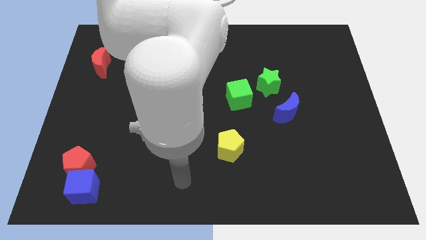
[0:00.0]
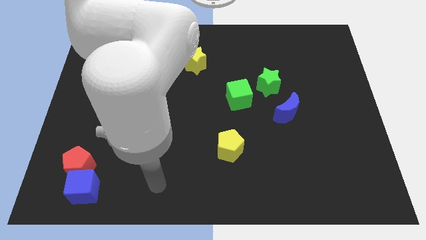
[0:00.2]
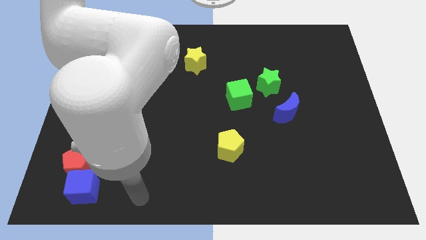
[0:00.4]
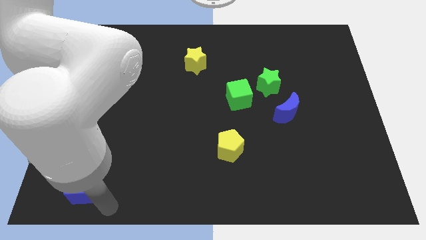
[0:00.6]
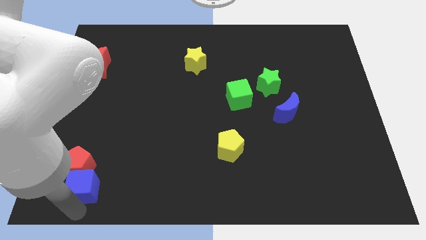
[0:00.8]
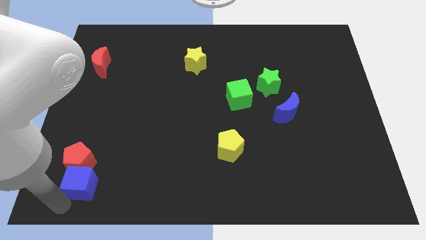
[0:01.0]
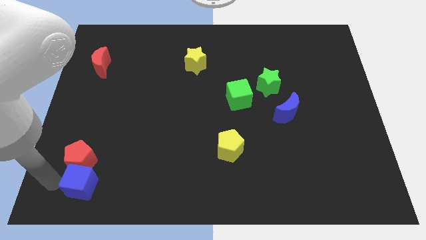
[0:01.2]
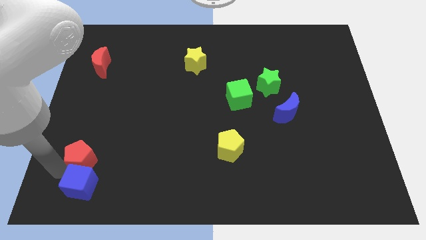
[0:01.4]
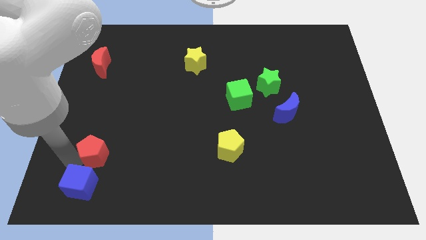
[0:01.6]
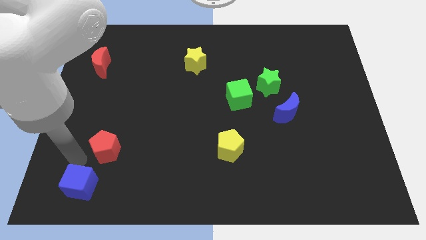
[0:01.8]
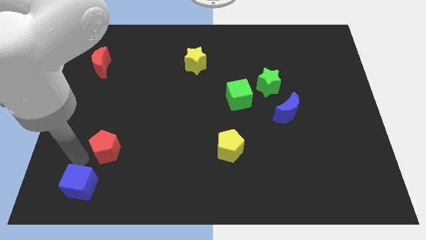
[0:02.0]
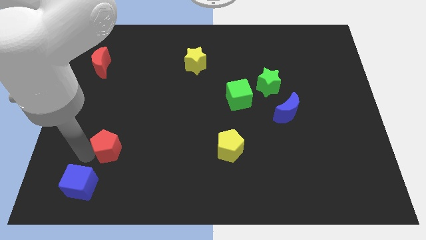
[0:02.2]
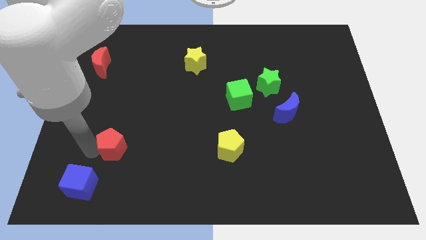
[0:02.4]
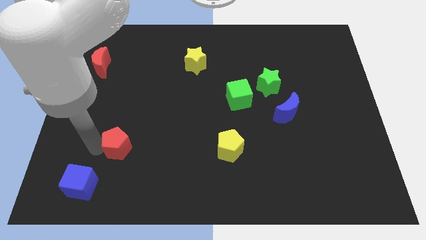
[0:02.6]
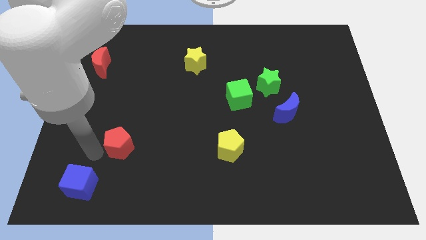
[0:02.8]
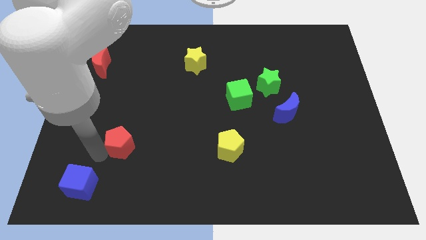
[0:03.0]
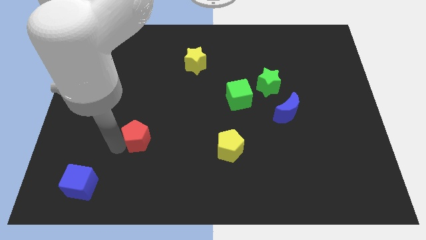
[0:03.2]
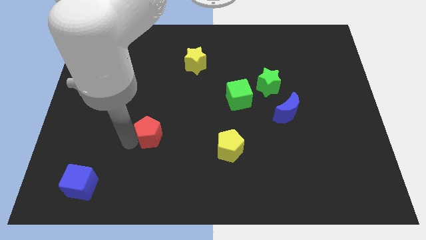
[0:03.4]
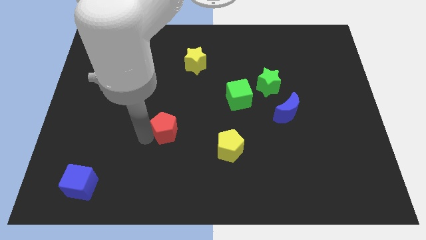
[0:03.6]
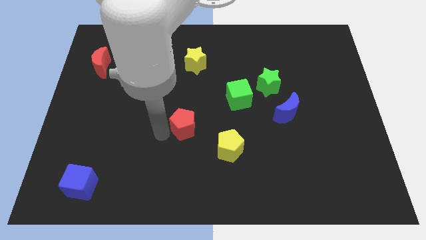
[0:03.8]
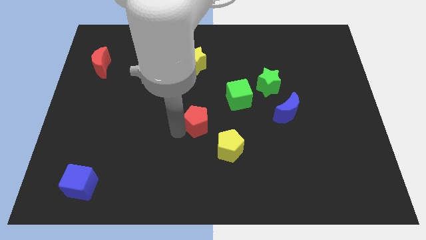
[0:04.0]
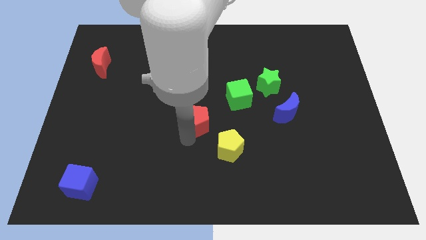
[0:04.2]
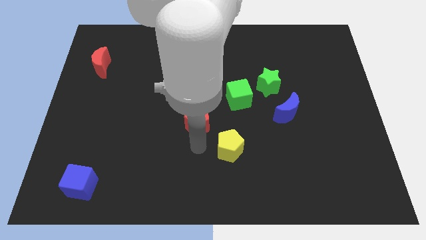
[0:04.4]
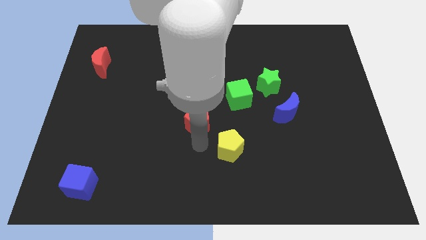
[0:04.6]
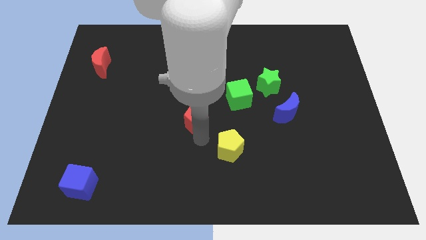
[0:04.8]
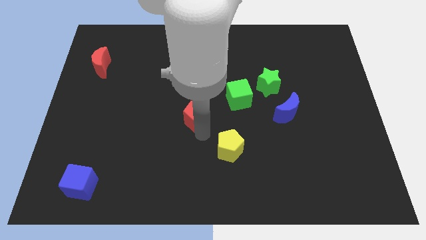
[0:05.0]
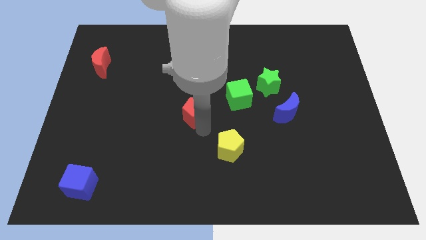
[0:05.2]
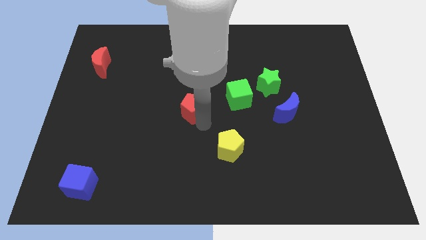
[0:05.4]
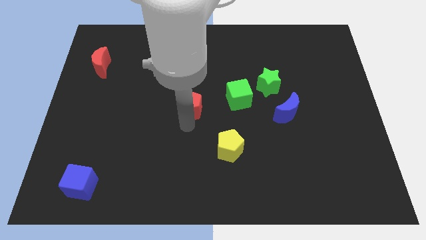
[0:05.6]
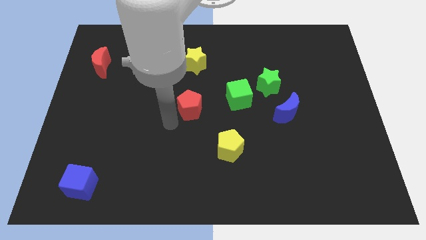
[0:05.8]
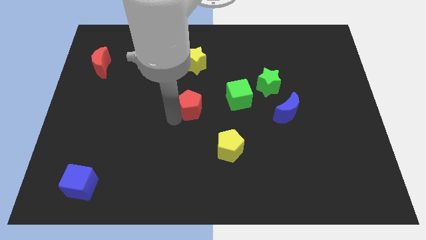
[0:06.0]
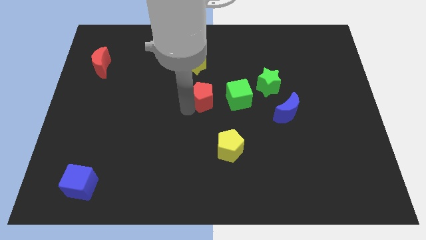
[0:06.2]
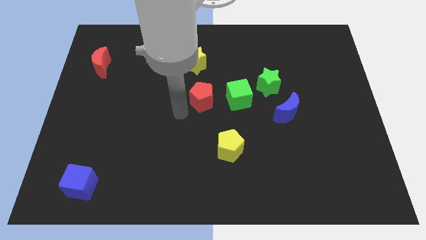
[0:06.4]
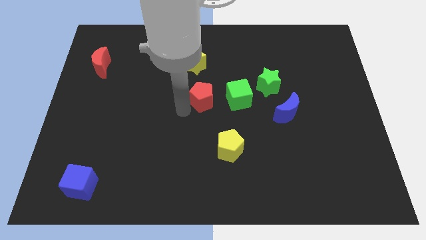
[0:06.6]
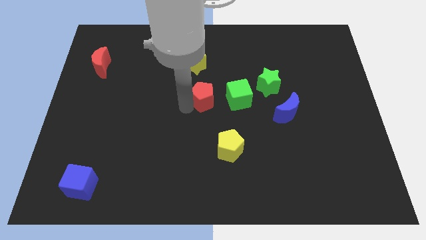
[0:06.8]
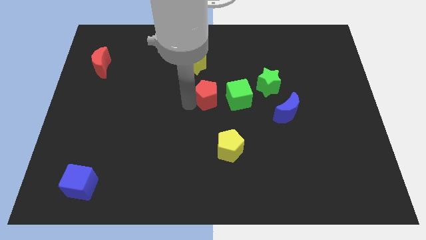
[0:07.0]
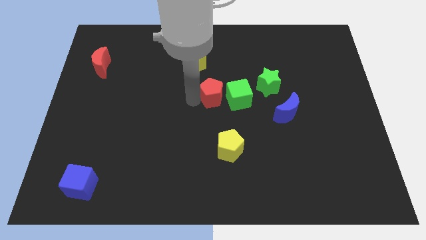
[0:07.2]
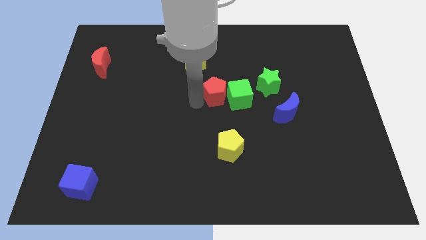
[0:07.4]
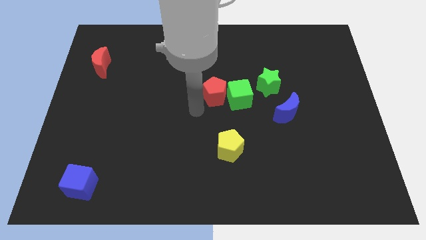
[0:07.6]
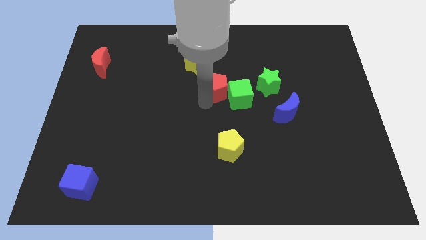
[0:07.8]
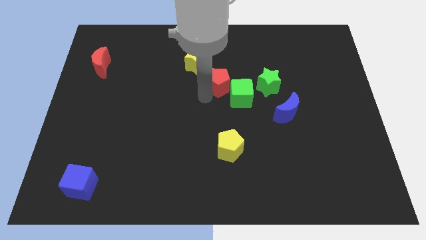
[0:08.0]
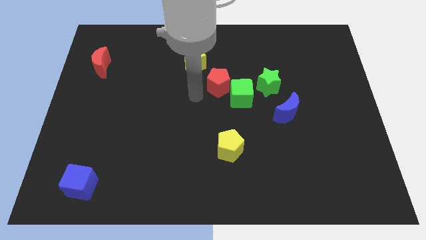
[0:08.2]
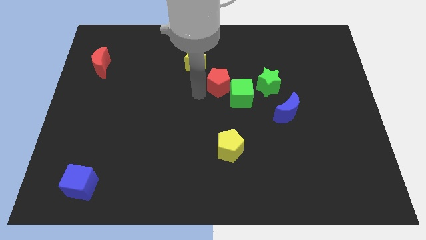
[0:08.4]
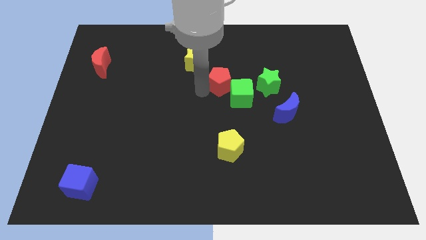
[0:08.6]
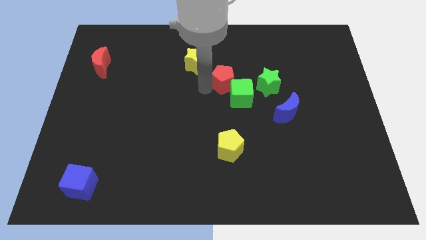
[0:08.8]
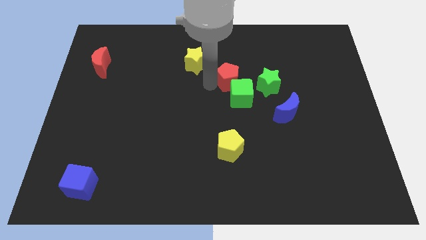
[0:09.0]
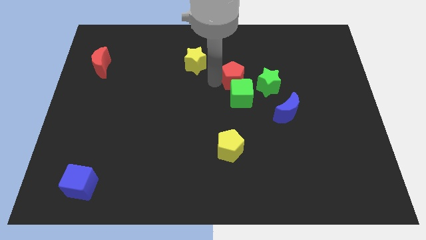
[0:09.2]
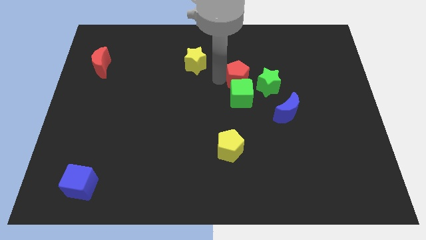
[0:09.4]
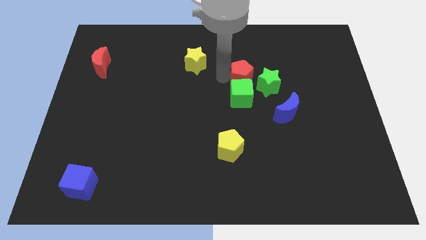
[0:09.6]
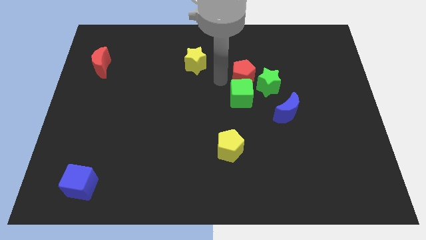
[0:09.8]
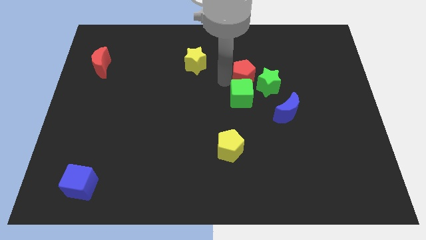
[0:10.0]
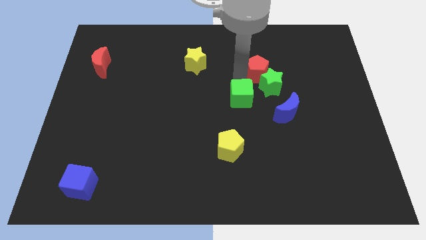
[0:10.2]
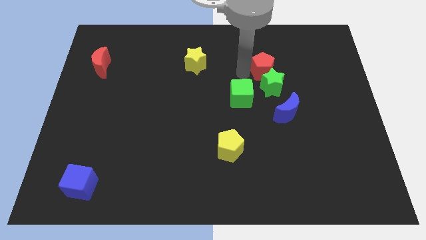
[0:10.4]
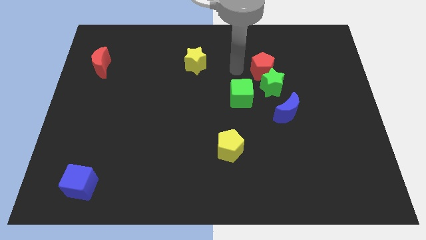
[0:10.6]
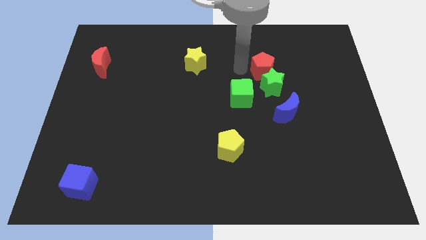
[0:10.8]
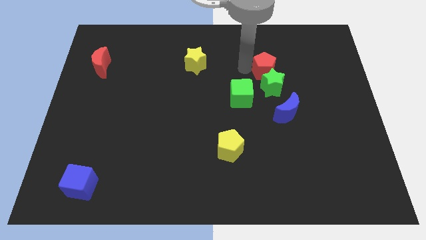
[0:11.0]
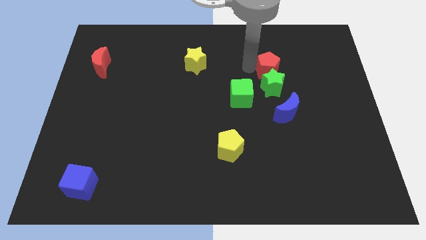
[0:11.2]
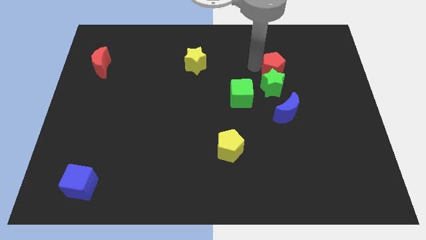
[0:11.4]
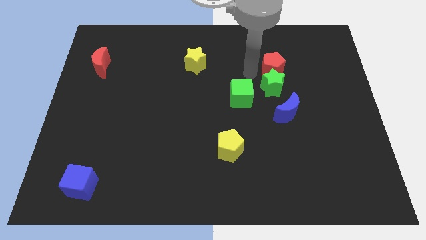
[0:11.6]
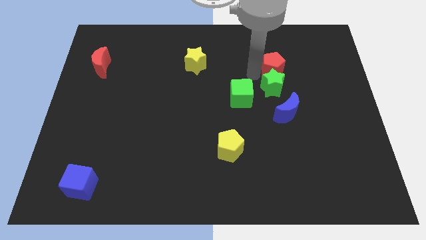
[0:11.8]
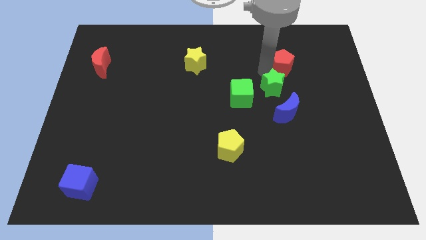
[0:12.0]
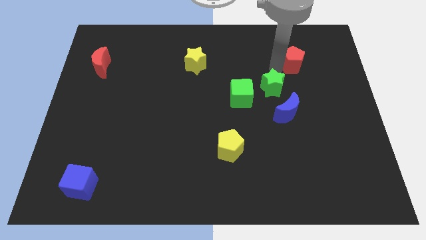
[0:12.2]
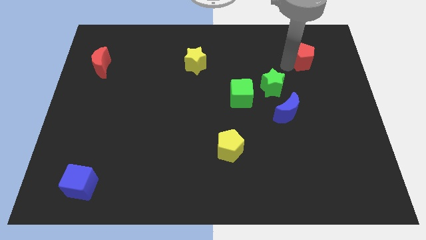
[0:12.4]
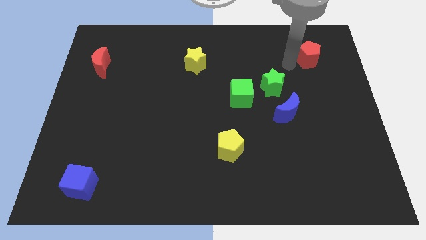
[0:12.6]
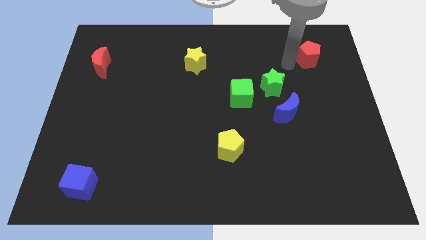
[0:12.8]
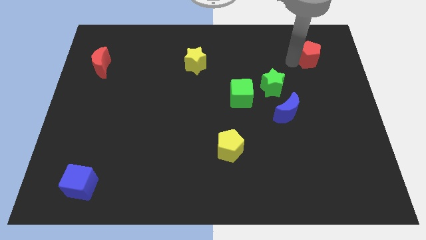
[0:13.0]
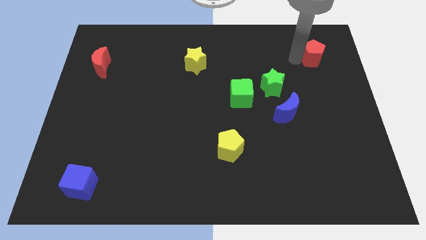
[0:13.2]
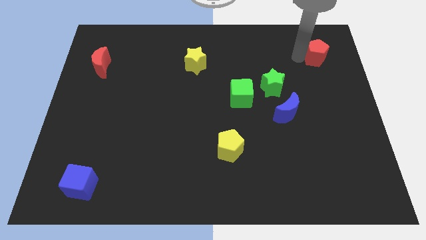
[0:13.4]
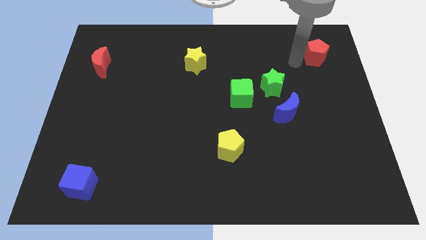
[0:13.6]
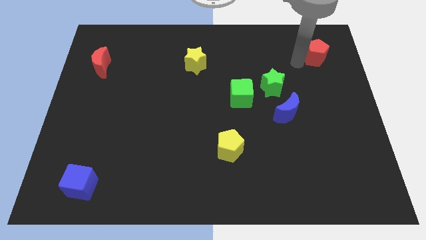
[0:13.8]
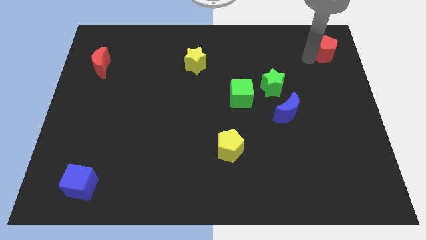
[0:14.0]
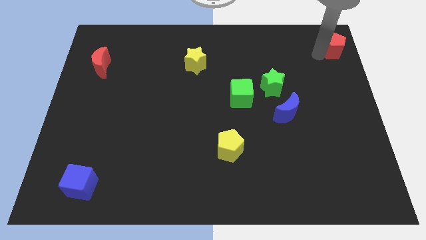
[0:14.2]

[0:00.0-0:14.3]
put the red pentagon to the upper right corner
